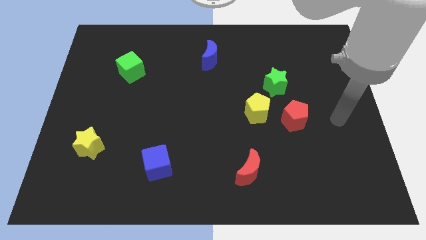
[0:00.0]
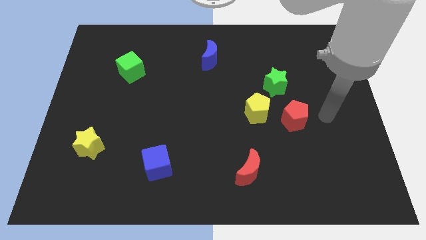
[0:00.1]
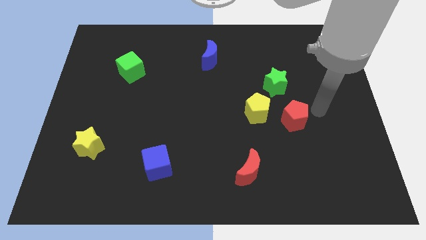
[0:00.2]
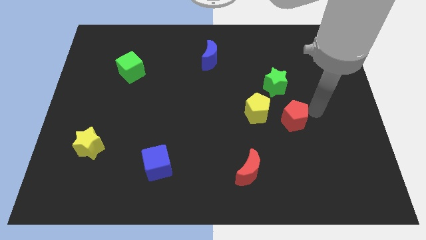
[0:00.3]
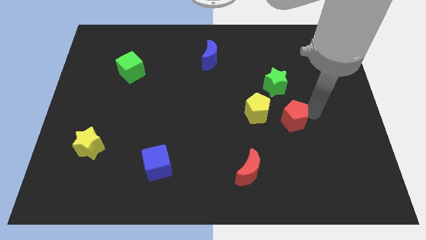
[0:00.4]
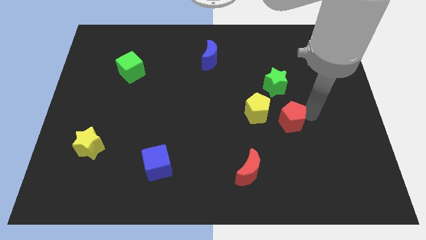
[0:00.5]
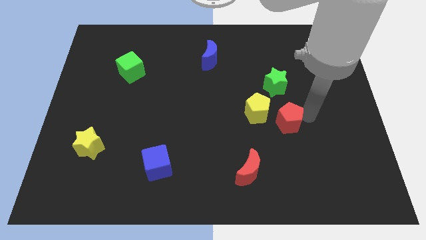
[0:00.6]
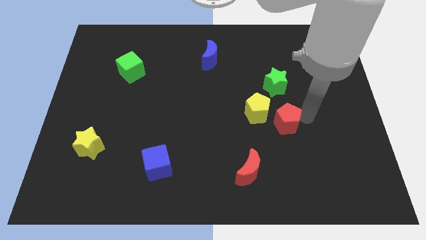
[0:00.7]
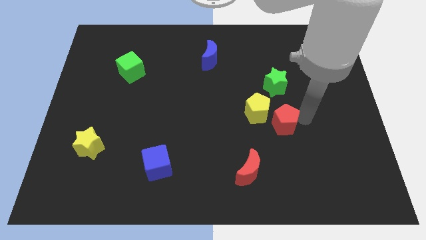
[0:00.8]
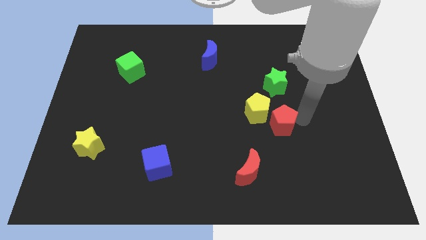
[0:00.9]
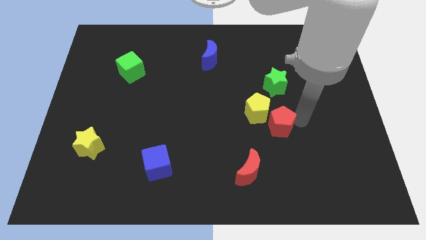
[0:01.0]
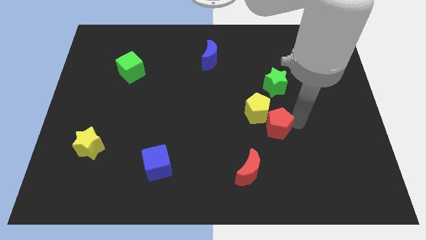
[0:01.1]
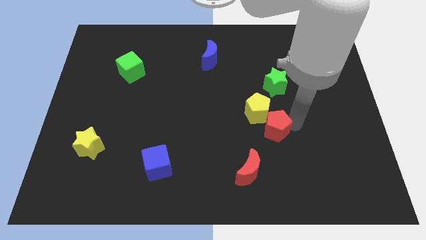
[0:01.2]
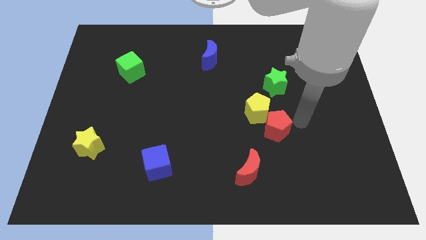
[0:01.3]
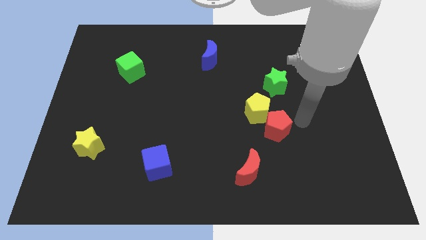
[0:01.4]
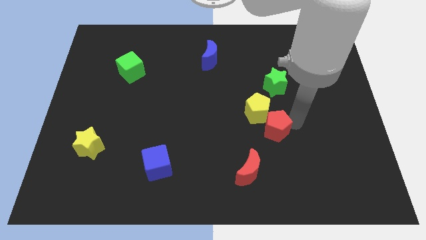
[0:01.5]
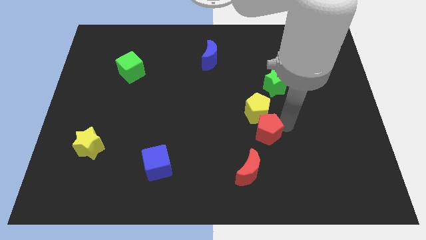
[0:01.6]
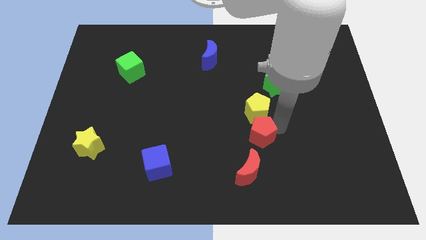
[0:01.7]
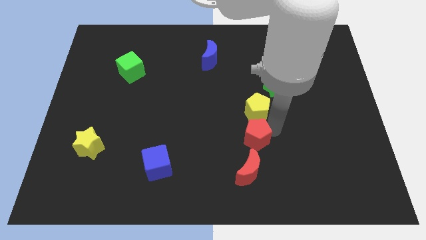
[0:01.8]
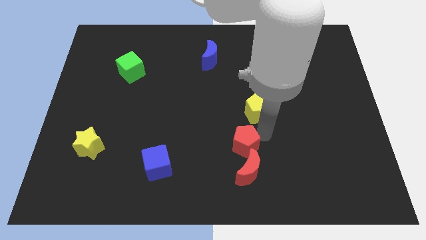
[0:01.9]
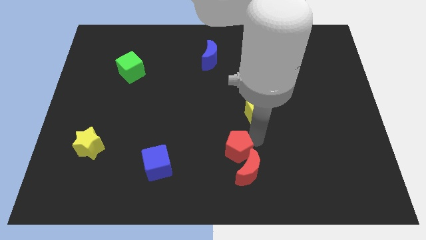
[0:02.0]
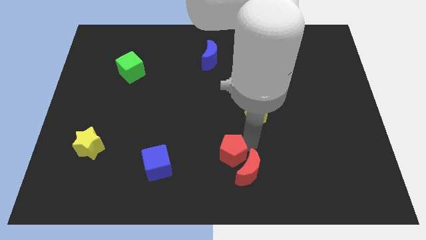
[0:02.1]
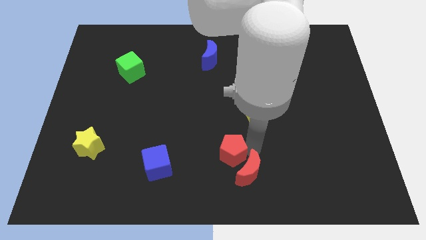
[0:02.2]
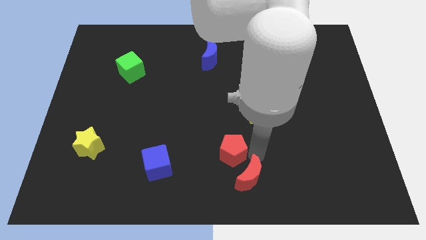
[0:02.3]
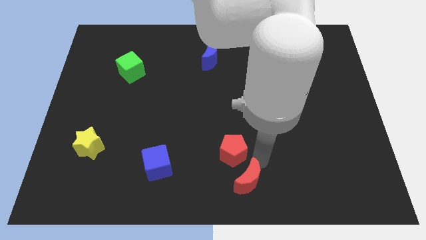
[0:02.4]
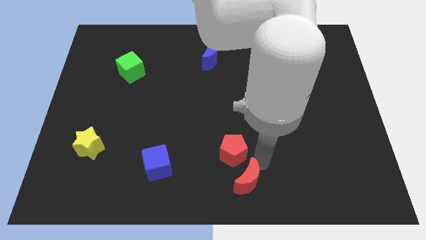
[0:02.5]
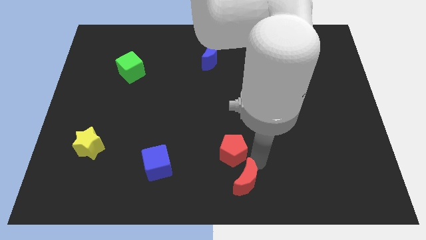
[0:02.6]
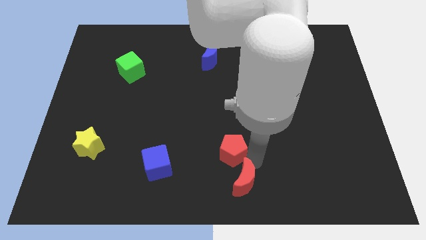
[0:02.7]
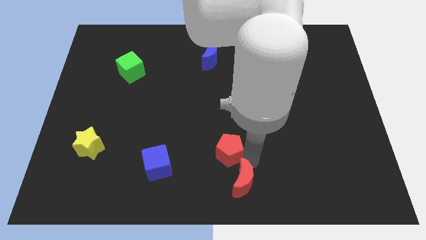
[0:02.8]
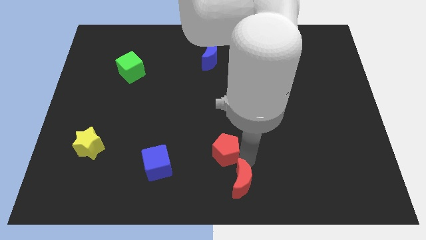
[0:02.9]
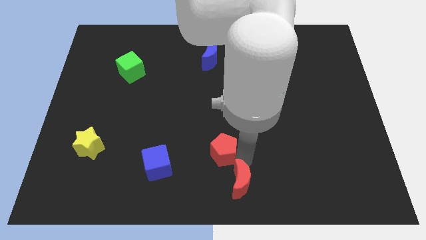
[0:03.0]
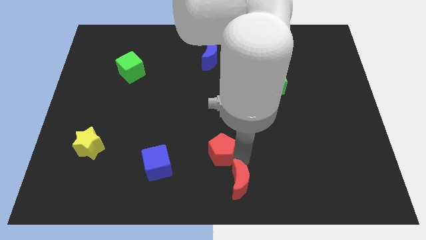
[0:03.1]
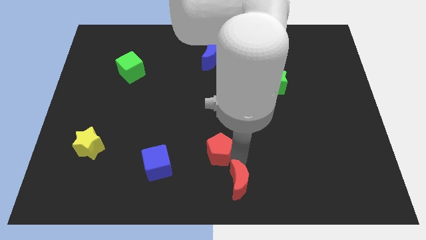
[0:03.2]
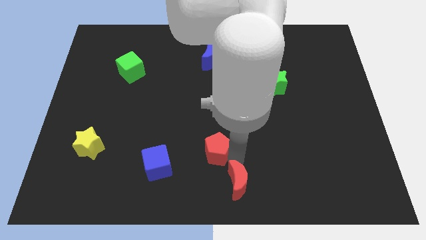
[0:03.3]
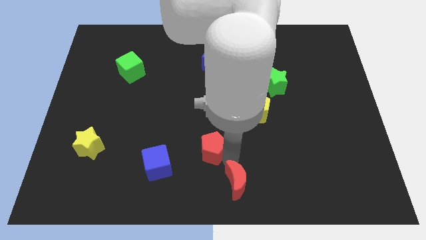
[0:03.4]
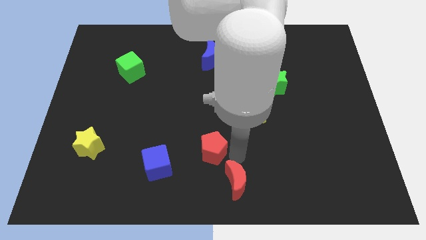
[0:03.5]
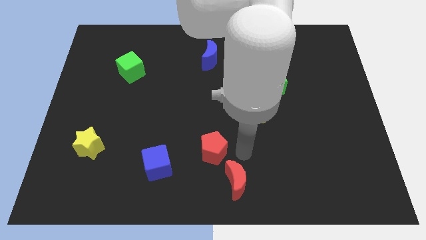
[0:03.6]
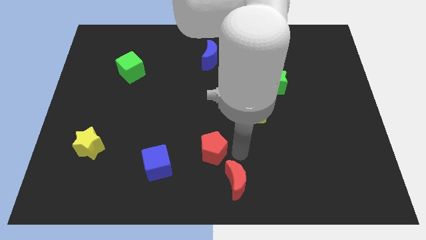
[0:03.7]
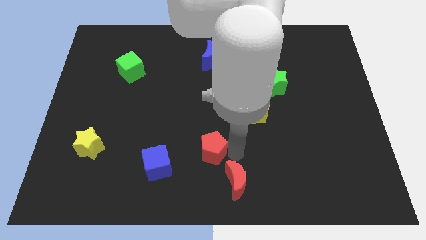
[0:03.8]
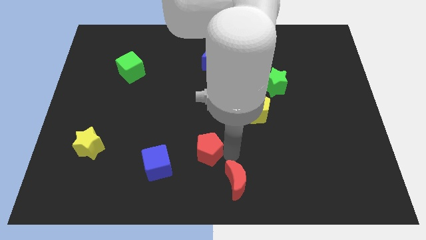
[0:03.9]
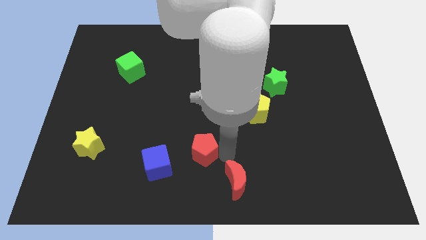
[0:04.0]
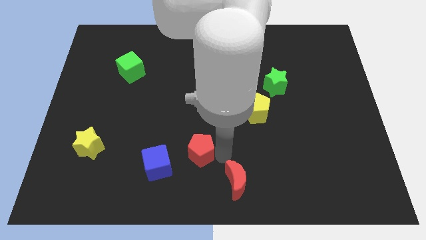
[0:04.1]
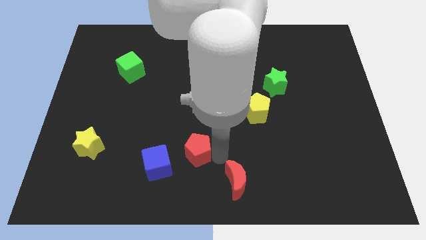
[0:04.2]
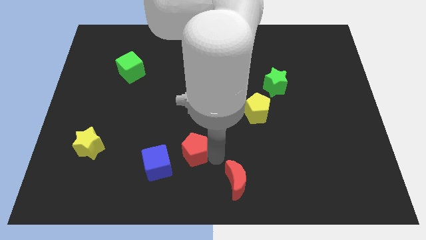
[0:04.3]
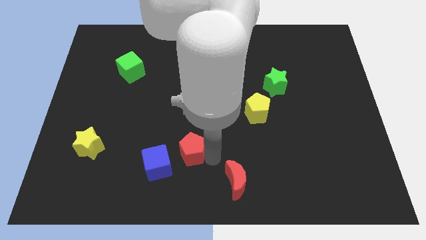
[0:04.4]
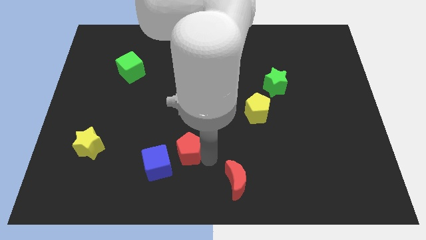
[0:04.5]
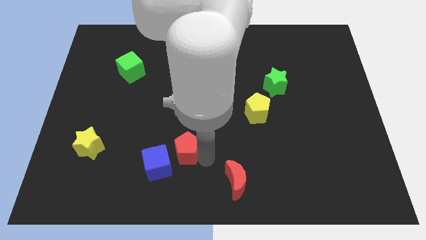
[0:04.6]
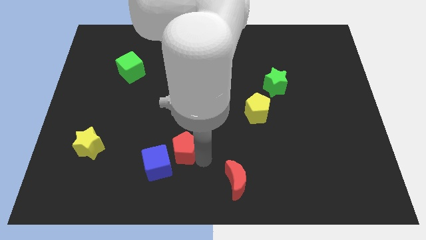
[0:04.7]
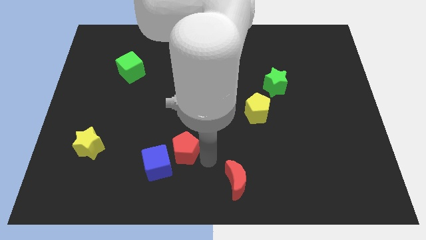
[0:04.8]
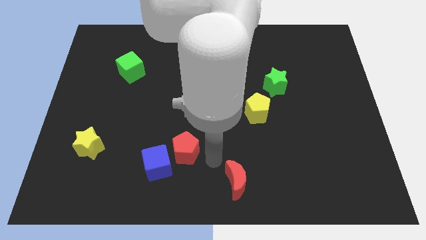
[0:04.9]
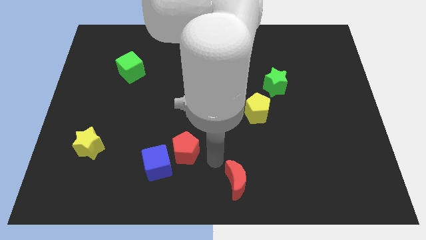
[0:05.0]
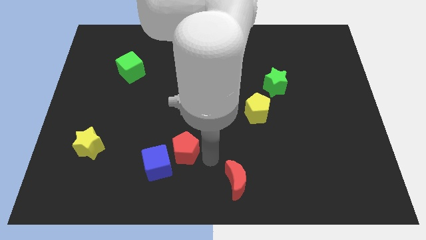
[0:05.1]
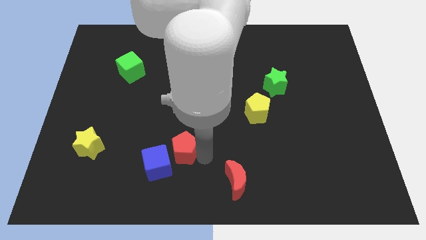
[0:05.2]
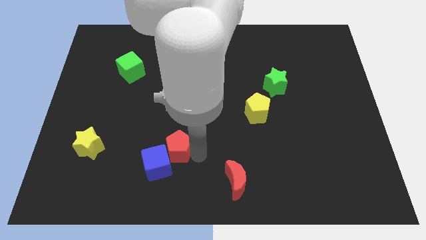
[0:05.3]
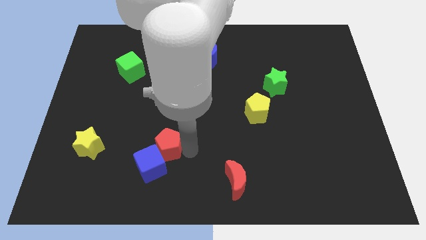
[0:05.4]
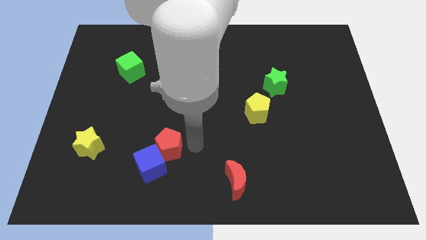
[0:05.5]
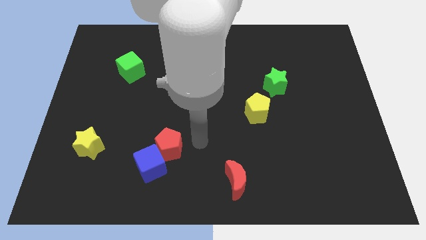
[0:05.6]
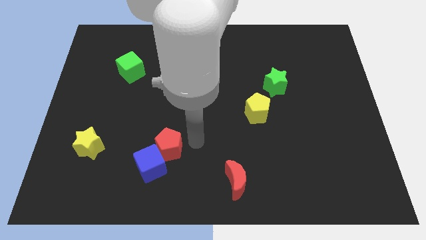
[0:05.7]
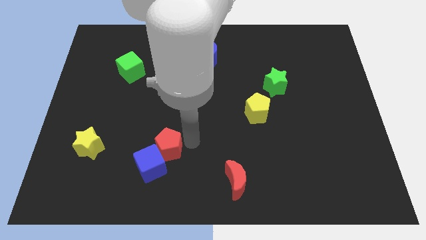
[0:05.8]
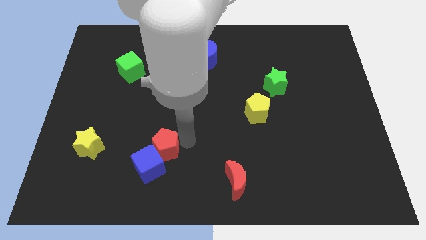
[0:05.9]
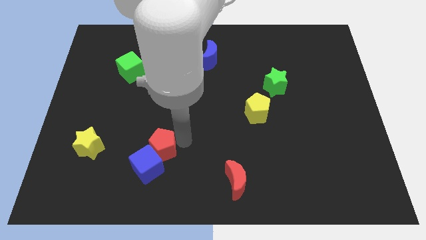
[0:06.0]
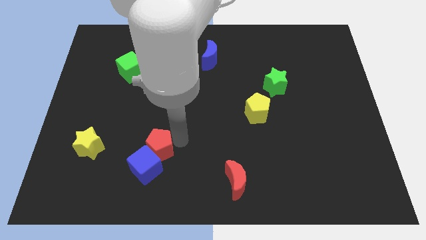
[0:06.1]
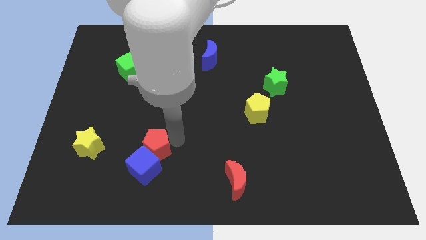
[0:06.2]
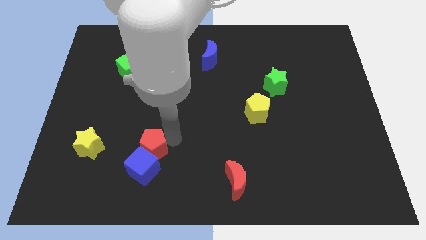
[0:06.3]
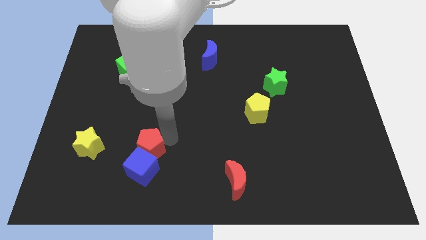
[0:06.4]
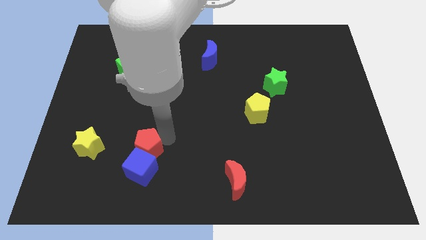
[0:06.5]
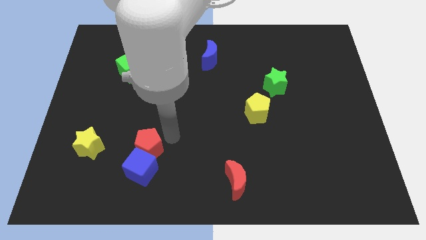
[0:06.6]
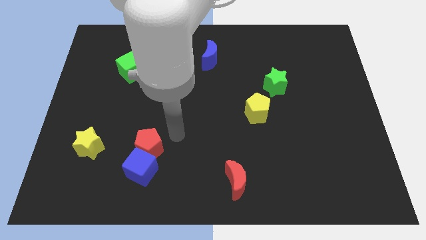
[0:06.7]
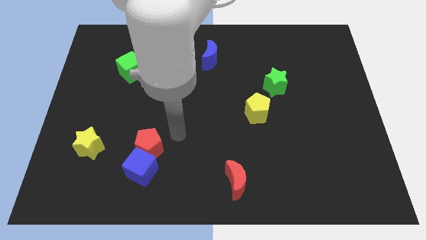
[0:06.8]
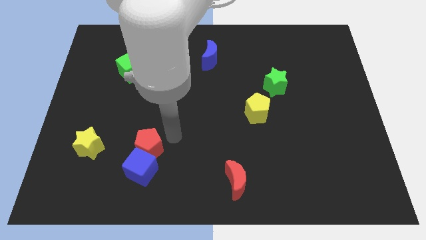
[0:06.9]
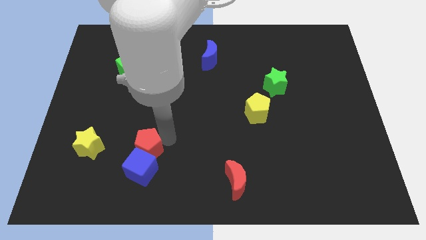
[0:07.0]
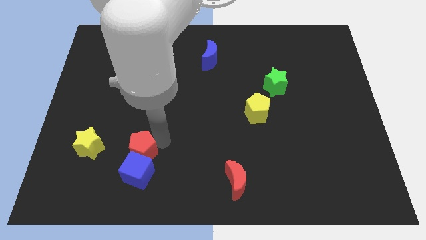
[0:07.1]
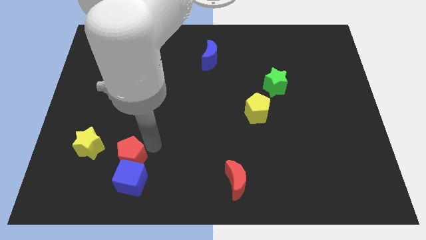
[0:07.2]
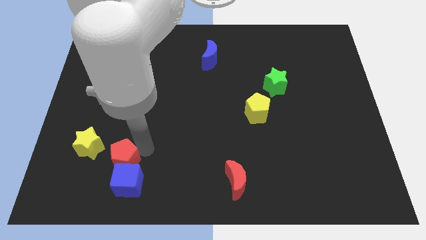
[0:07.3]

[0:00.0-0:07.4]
put the red pentagon to the bottom right of the yellow star

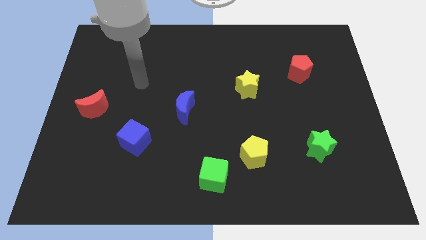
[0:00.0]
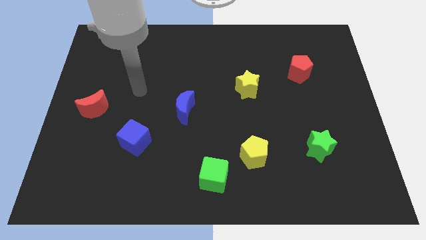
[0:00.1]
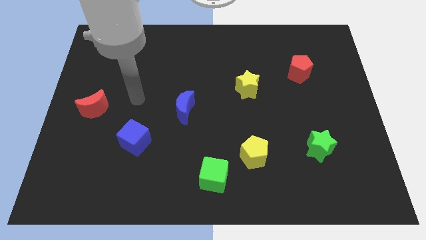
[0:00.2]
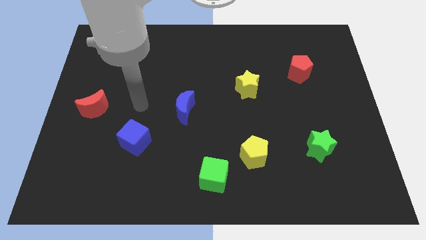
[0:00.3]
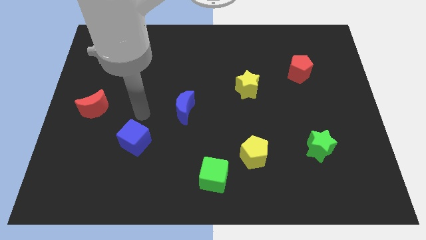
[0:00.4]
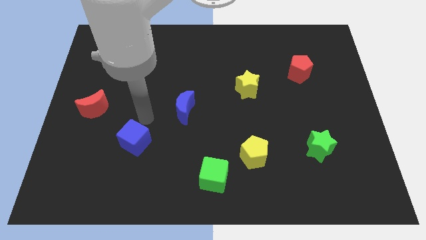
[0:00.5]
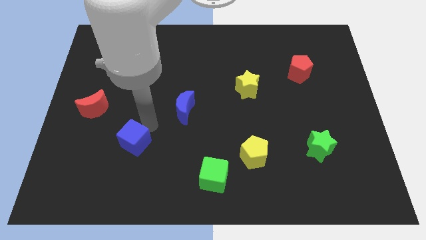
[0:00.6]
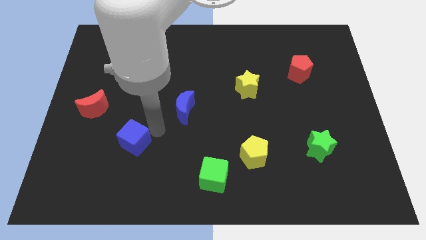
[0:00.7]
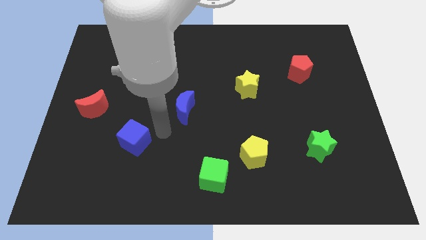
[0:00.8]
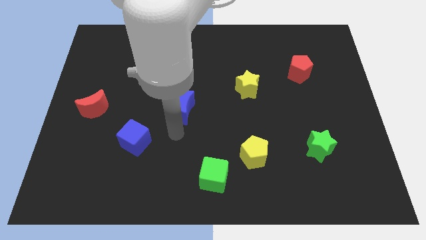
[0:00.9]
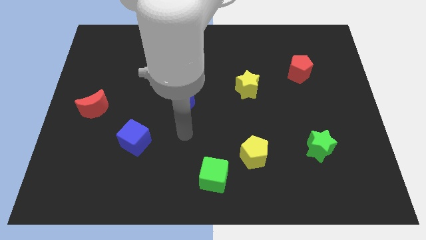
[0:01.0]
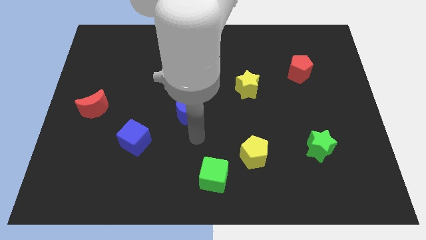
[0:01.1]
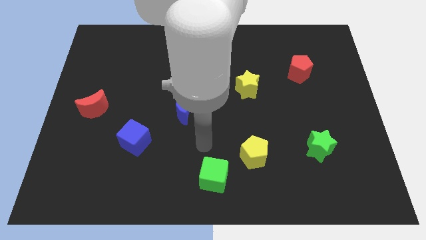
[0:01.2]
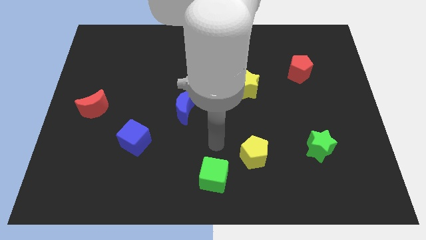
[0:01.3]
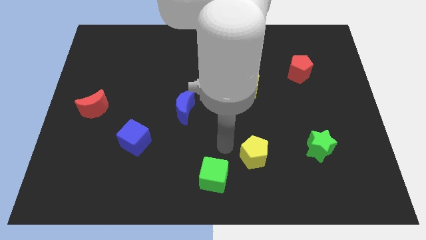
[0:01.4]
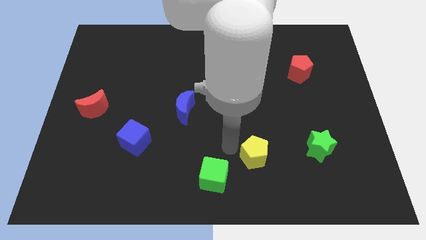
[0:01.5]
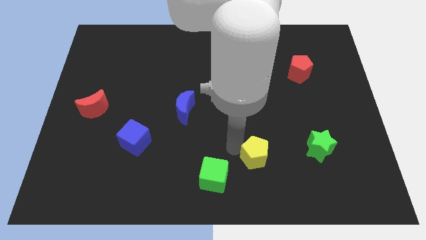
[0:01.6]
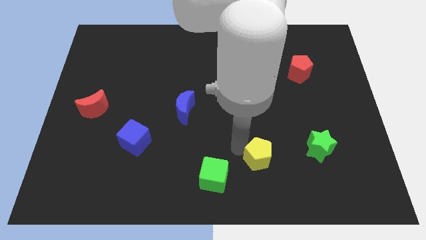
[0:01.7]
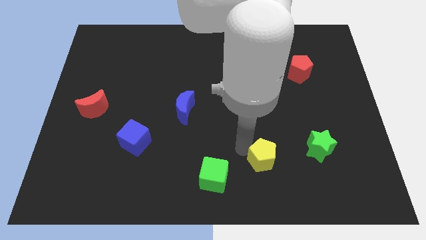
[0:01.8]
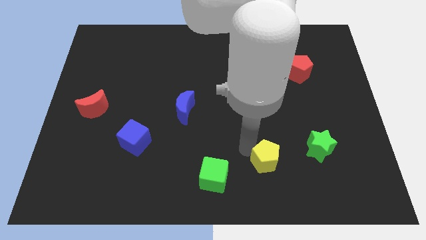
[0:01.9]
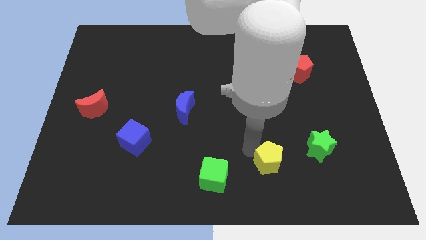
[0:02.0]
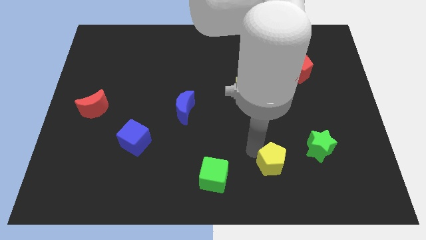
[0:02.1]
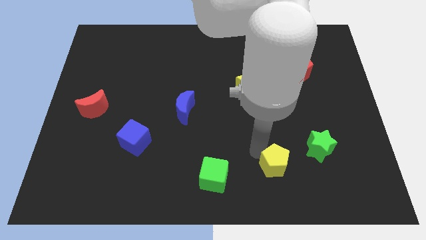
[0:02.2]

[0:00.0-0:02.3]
slide the yellow pentagon to the bottom left side of the green star
